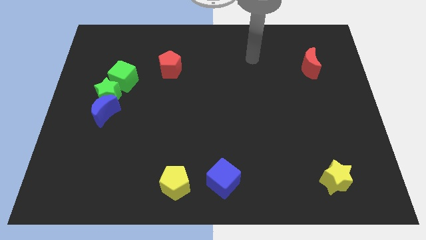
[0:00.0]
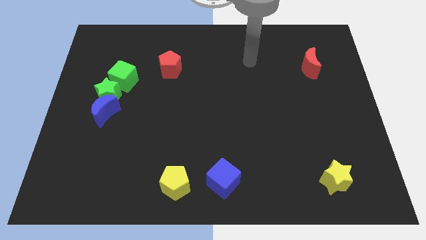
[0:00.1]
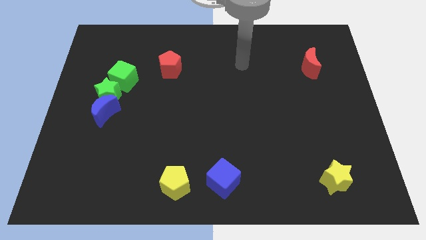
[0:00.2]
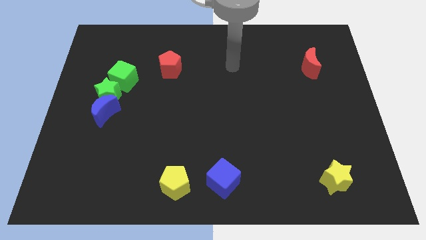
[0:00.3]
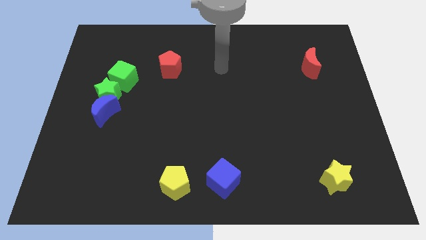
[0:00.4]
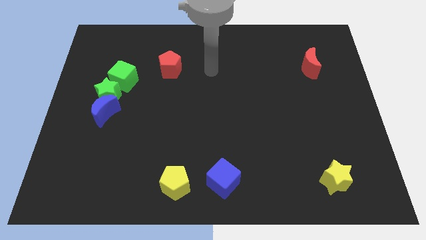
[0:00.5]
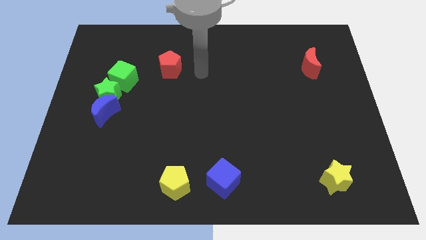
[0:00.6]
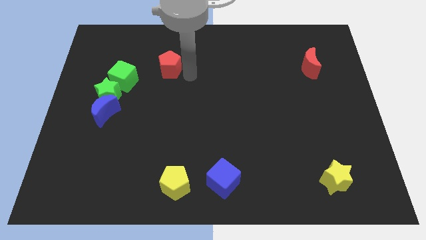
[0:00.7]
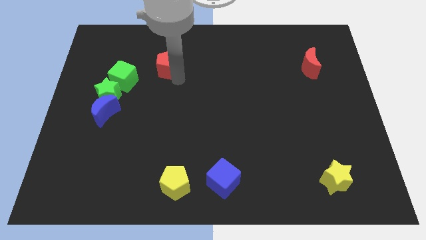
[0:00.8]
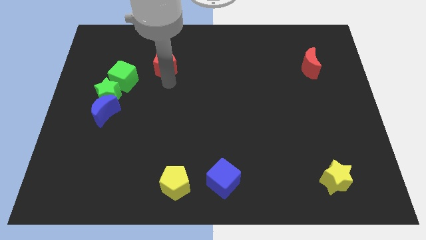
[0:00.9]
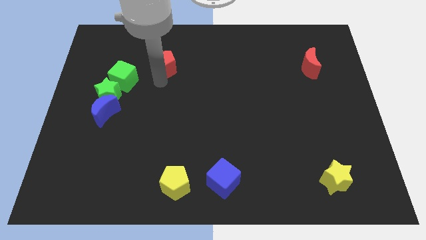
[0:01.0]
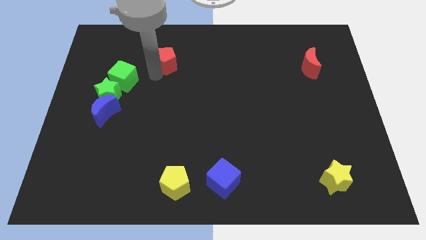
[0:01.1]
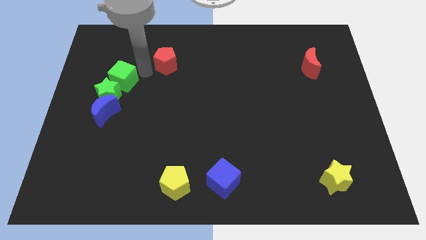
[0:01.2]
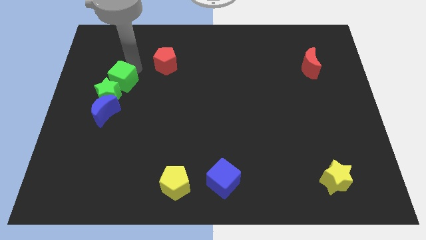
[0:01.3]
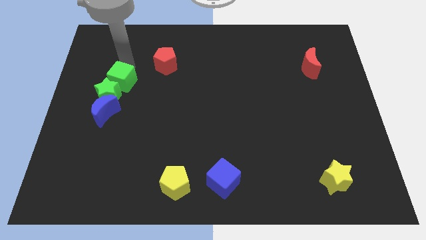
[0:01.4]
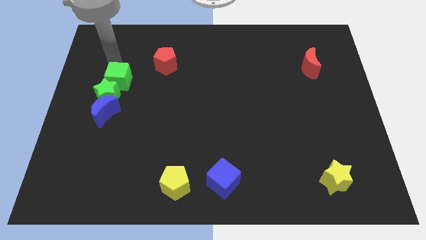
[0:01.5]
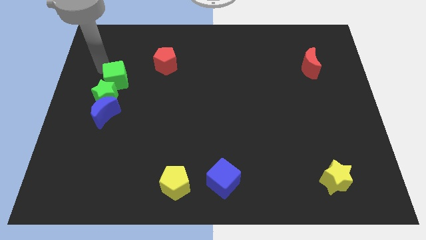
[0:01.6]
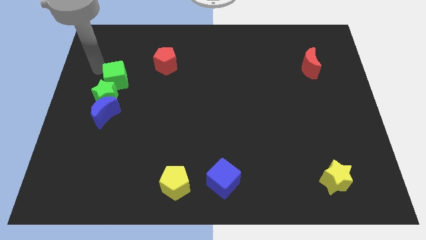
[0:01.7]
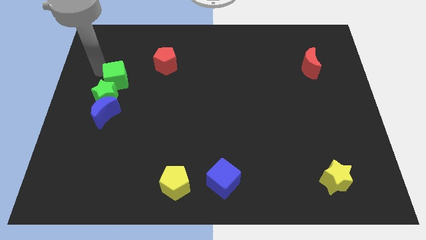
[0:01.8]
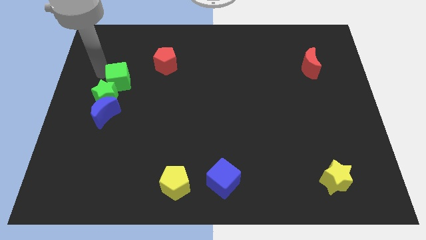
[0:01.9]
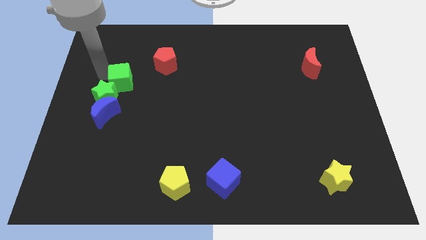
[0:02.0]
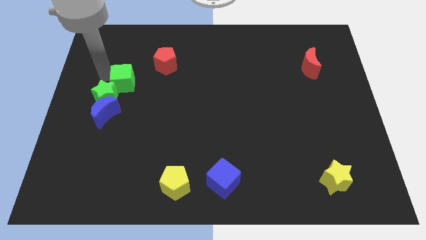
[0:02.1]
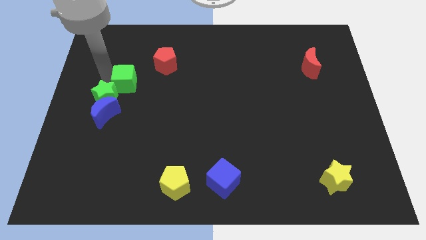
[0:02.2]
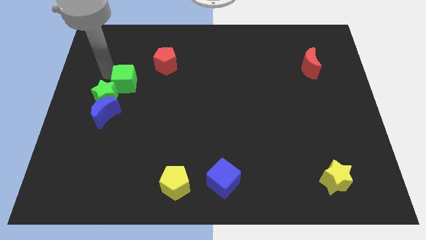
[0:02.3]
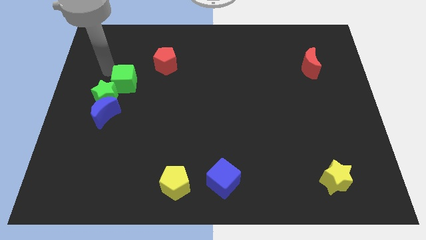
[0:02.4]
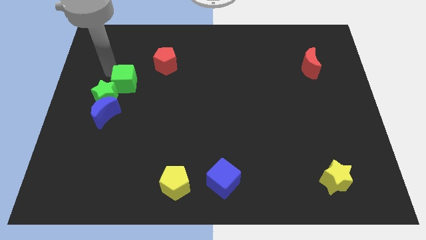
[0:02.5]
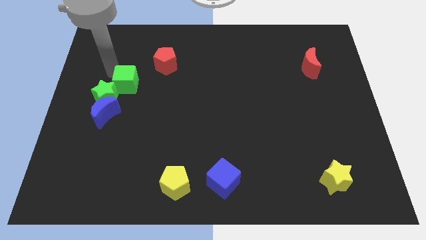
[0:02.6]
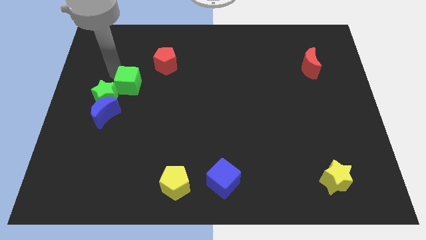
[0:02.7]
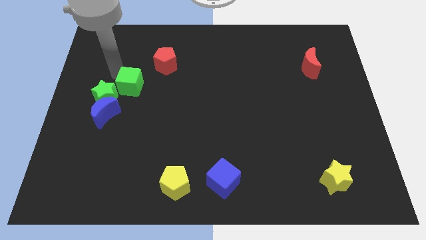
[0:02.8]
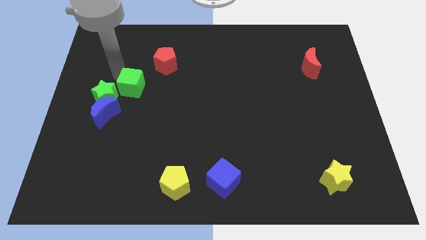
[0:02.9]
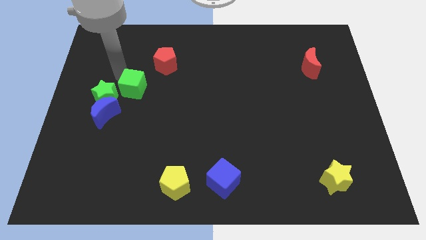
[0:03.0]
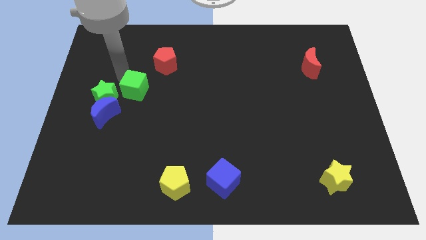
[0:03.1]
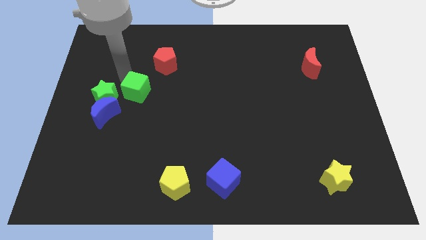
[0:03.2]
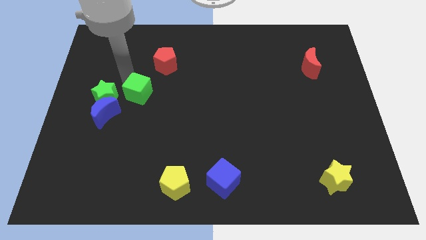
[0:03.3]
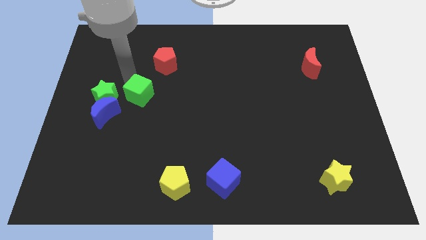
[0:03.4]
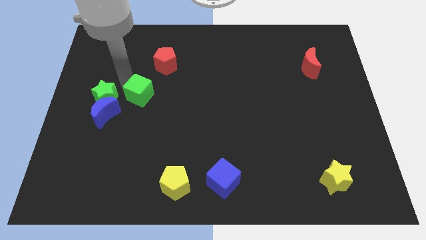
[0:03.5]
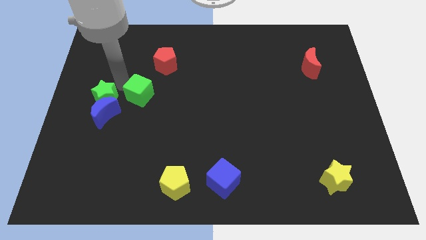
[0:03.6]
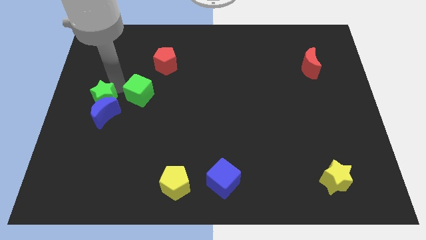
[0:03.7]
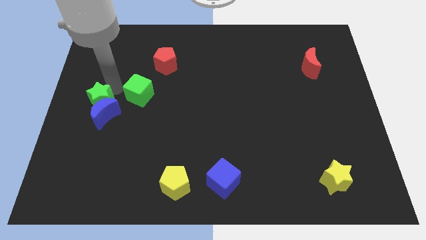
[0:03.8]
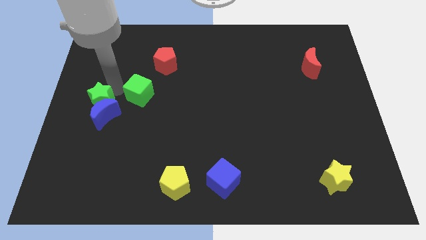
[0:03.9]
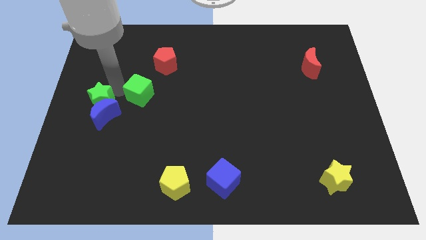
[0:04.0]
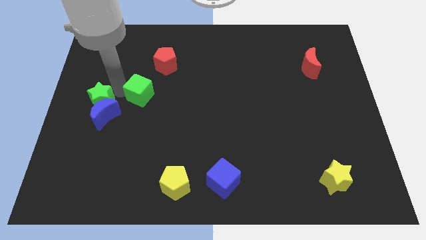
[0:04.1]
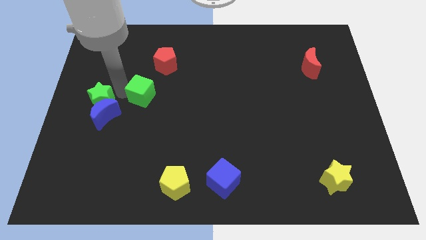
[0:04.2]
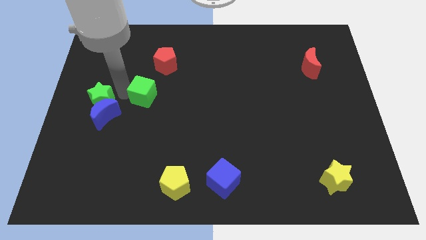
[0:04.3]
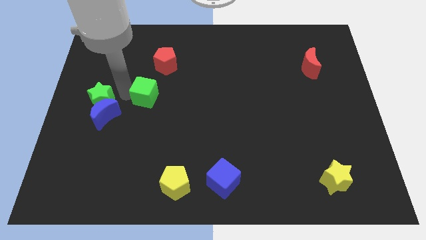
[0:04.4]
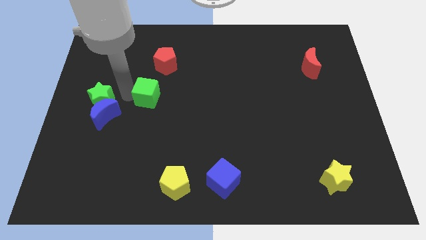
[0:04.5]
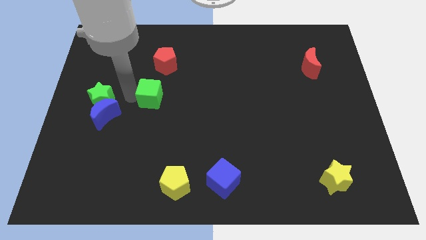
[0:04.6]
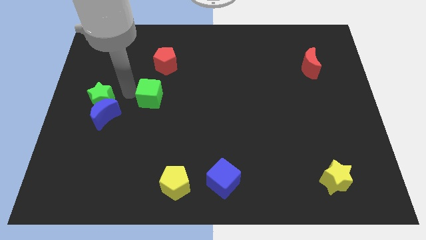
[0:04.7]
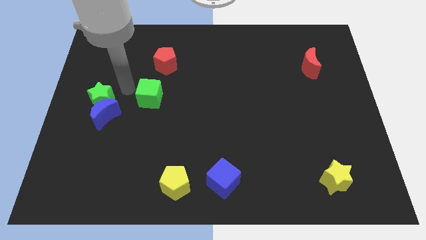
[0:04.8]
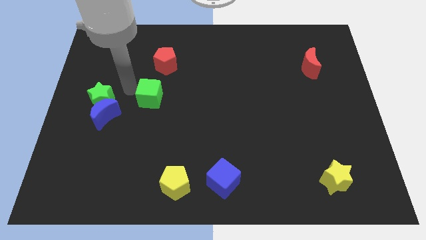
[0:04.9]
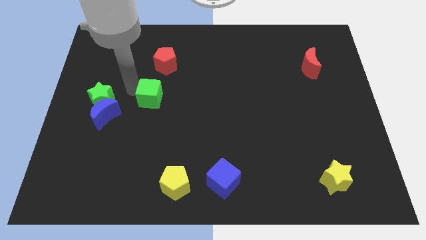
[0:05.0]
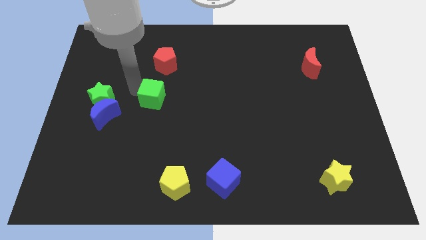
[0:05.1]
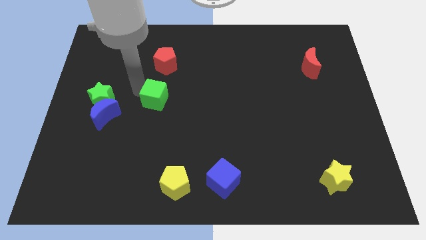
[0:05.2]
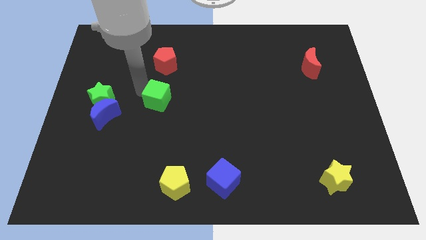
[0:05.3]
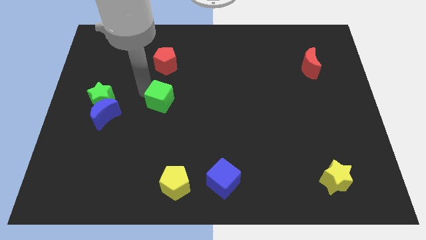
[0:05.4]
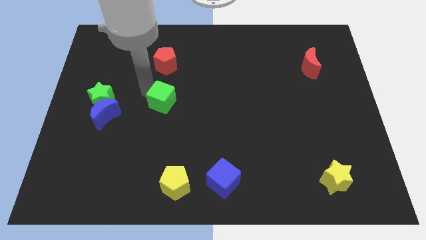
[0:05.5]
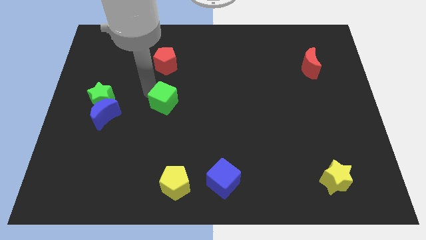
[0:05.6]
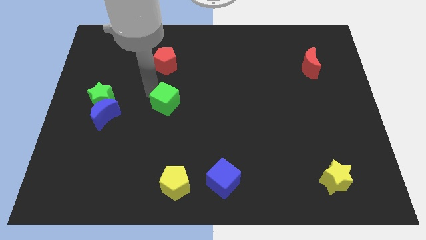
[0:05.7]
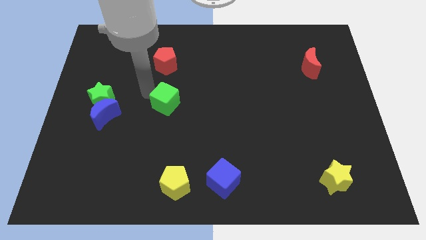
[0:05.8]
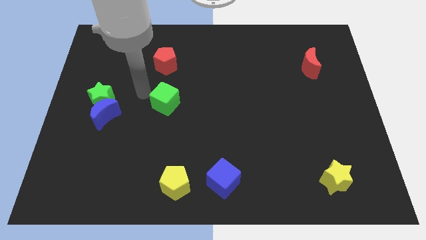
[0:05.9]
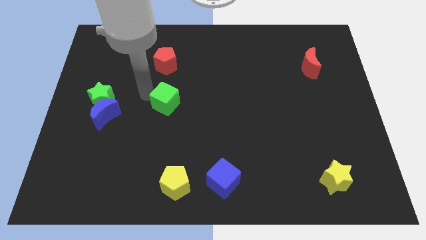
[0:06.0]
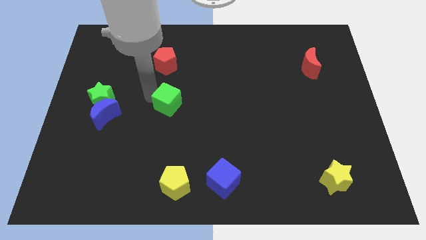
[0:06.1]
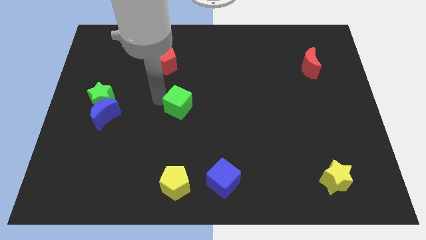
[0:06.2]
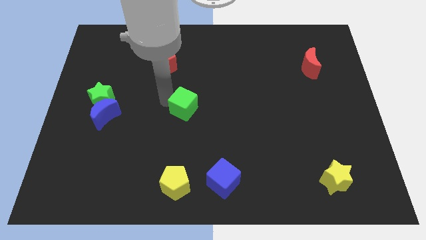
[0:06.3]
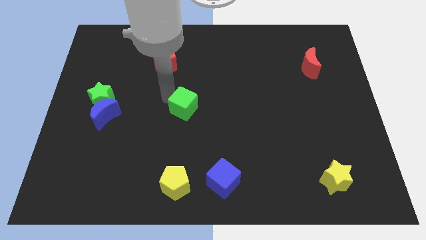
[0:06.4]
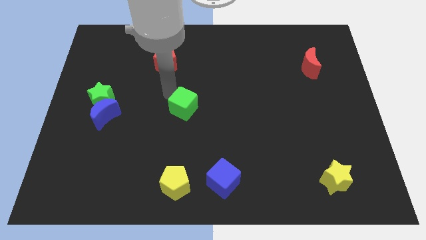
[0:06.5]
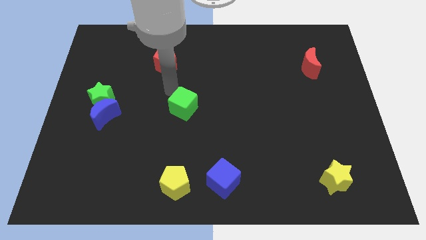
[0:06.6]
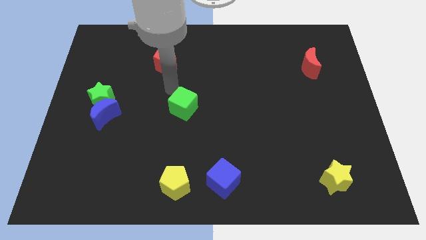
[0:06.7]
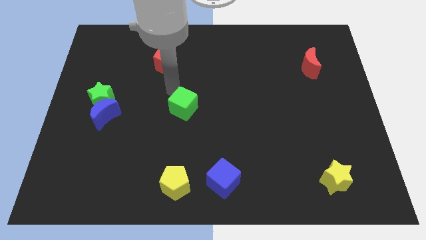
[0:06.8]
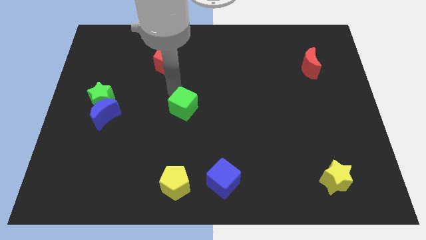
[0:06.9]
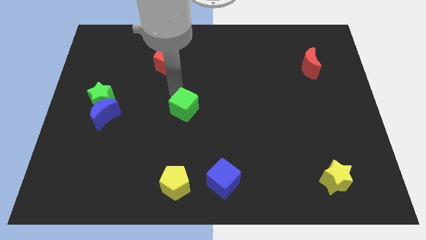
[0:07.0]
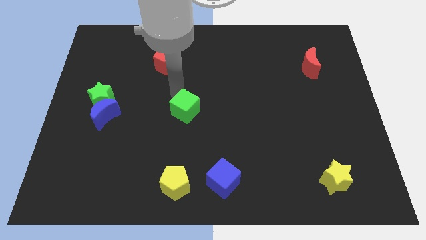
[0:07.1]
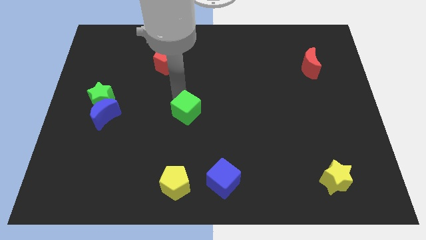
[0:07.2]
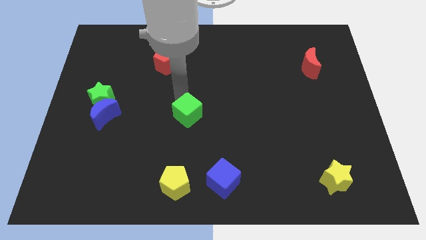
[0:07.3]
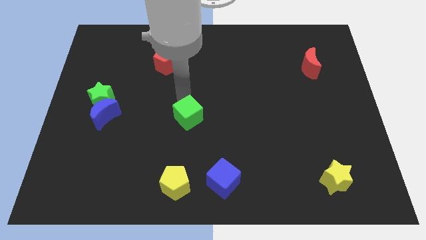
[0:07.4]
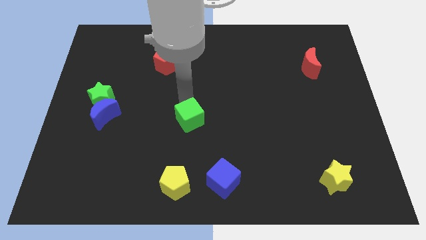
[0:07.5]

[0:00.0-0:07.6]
move the green cube downwards and right diagonally

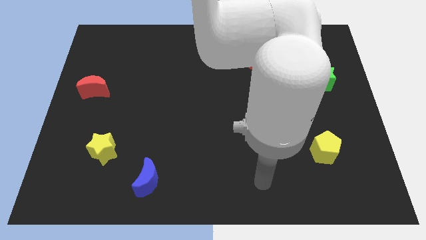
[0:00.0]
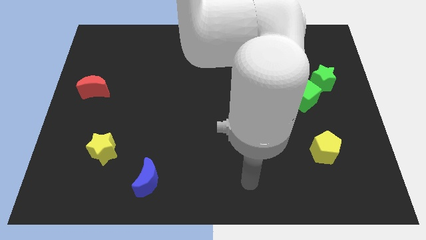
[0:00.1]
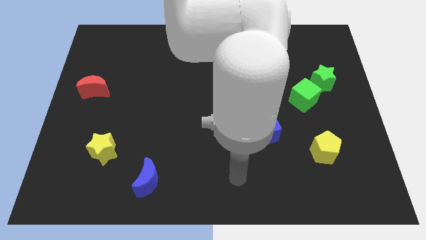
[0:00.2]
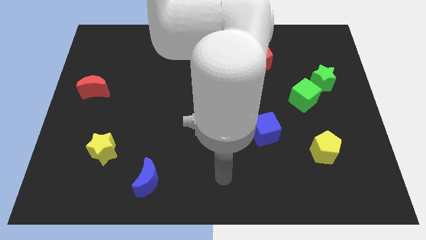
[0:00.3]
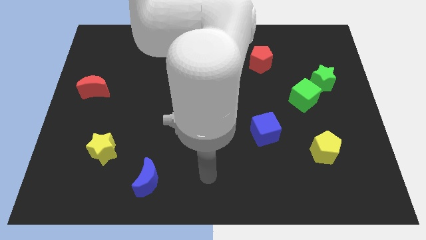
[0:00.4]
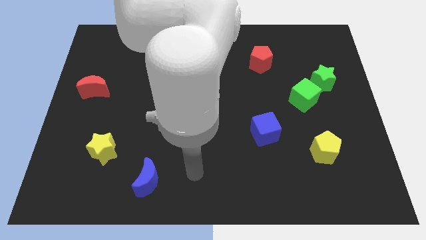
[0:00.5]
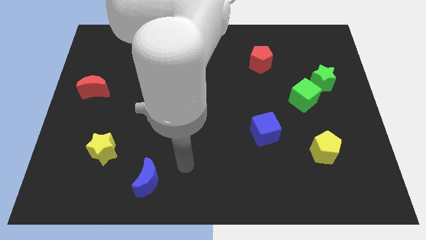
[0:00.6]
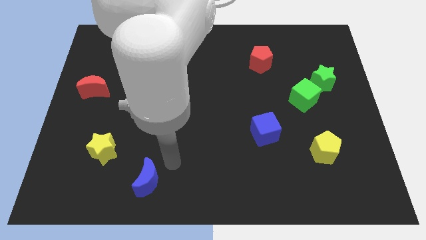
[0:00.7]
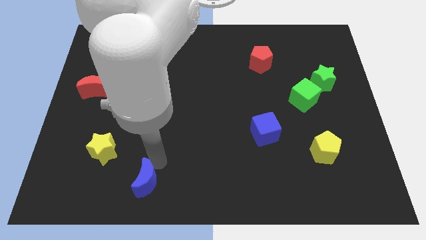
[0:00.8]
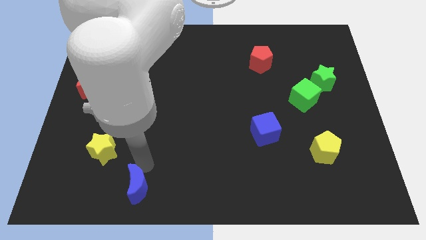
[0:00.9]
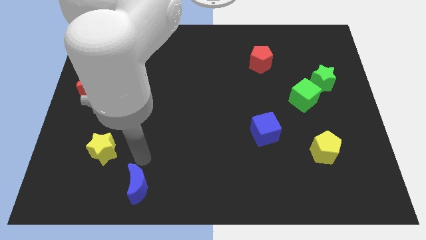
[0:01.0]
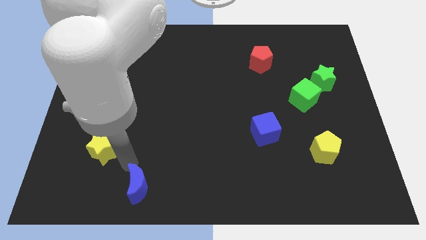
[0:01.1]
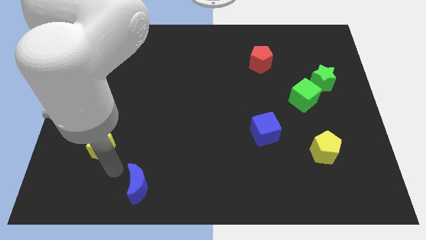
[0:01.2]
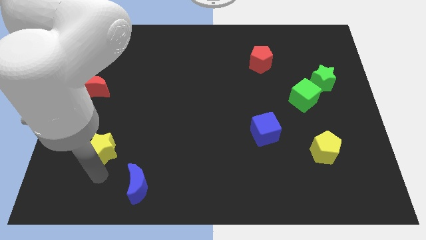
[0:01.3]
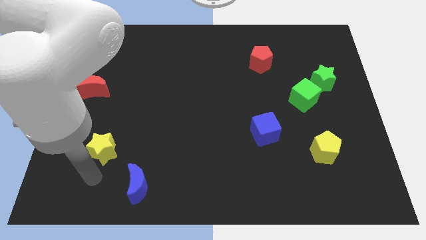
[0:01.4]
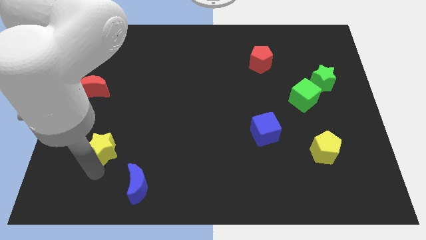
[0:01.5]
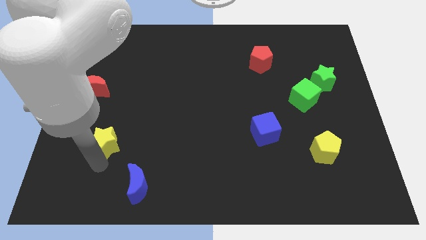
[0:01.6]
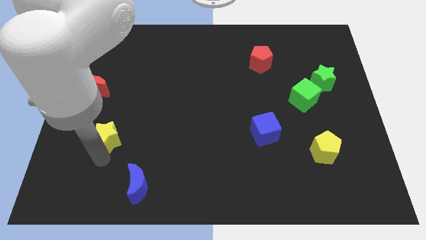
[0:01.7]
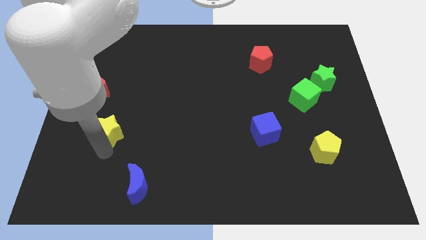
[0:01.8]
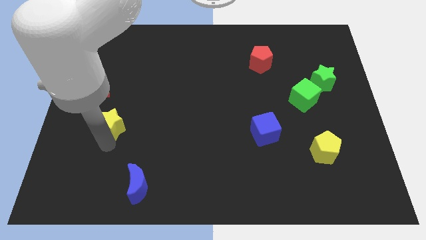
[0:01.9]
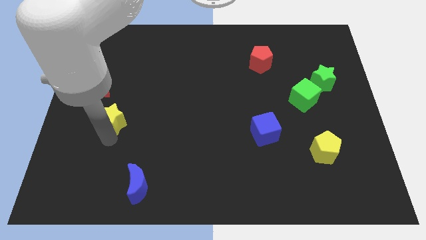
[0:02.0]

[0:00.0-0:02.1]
move the yellow star somewhat up
